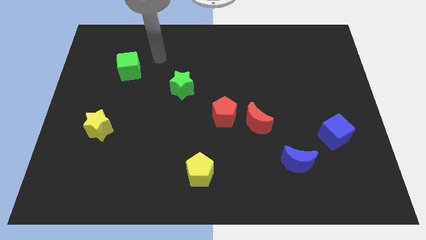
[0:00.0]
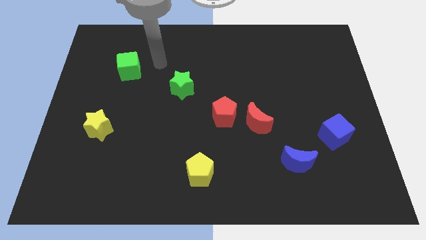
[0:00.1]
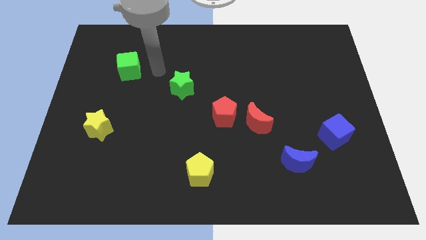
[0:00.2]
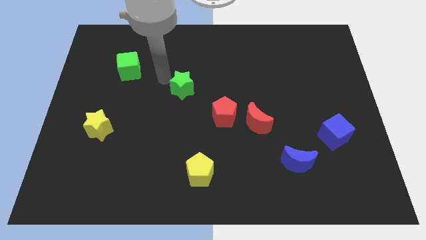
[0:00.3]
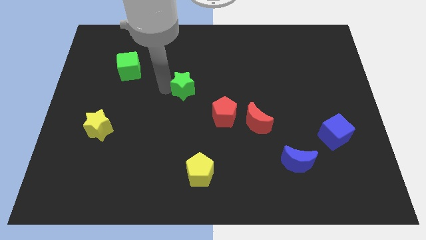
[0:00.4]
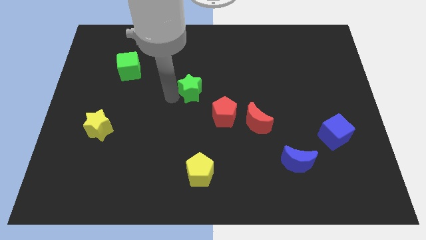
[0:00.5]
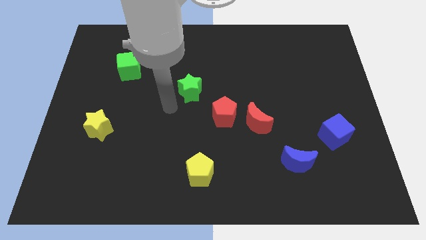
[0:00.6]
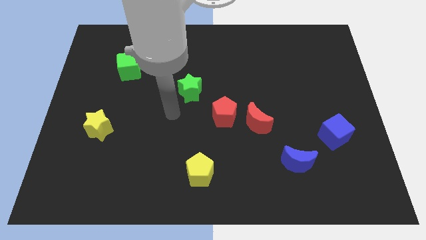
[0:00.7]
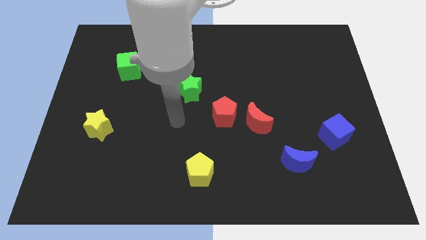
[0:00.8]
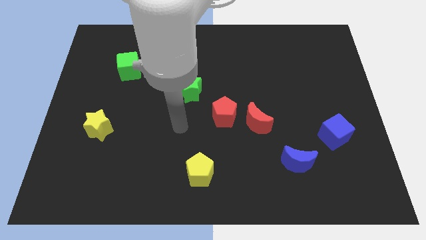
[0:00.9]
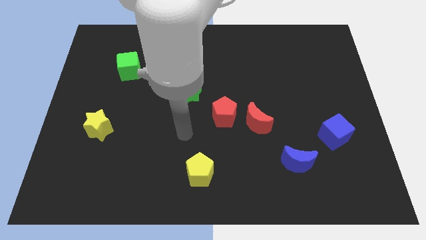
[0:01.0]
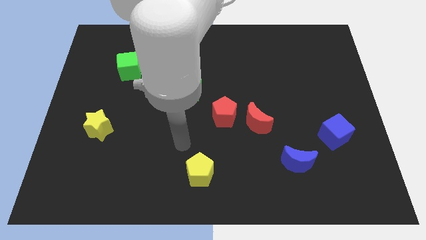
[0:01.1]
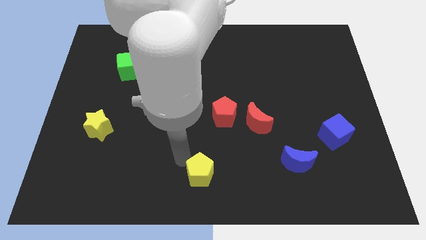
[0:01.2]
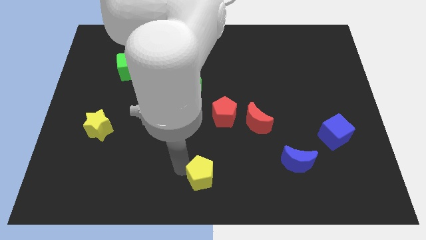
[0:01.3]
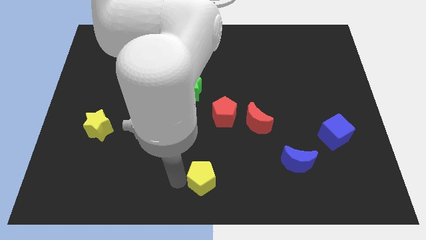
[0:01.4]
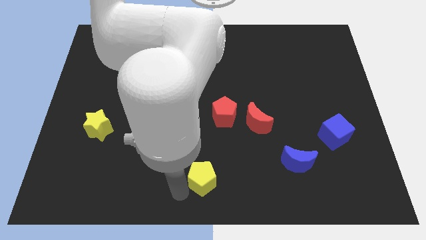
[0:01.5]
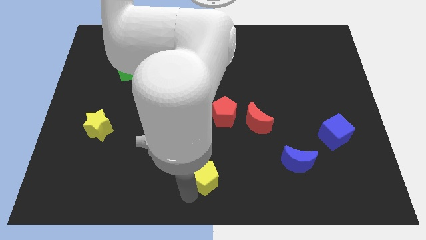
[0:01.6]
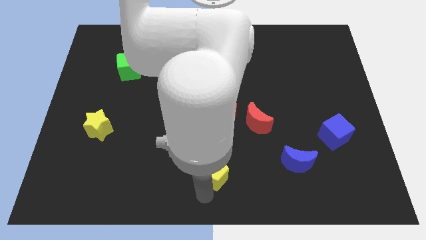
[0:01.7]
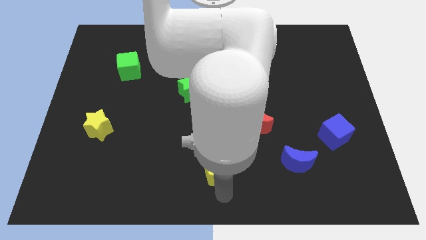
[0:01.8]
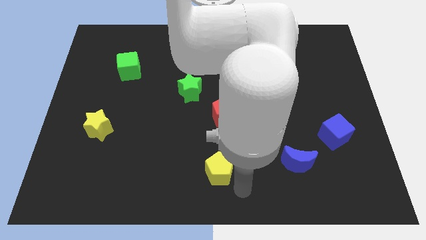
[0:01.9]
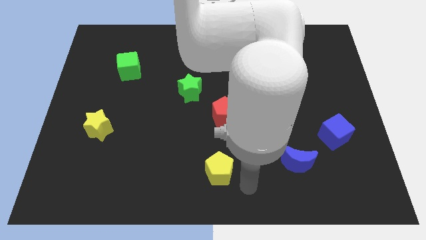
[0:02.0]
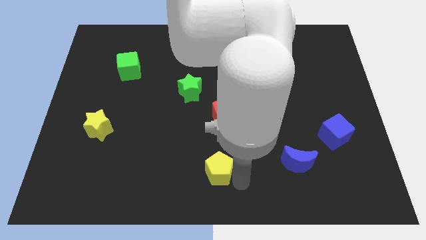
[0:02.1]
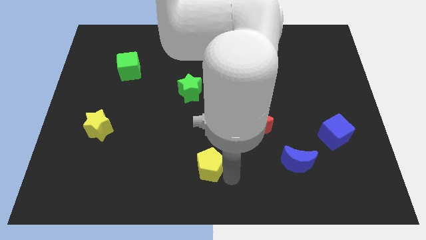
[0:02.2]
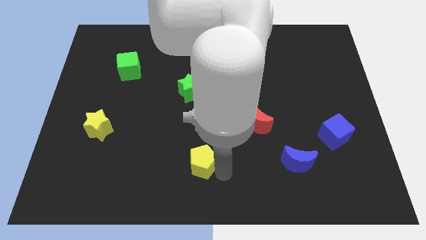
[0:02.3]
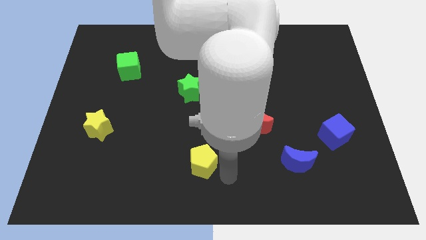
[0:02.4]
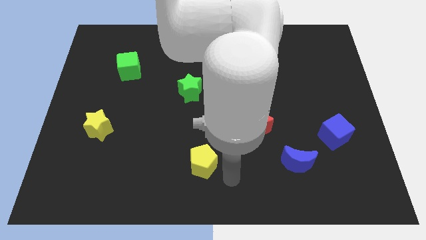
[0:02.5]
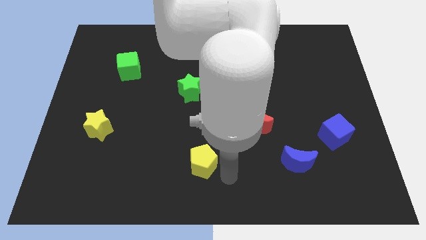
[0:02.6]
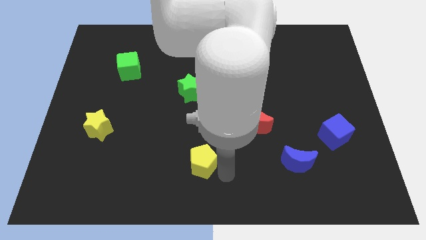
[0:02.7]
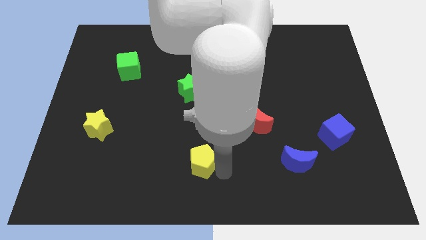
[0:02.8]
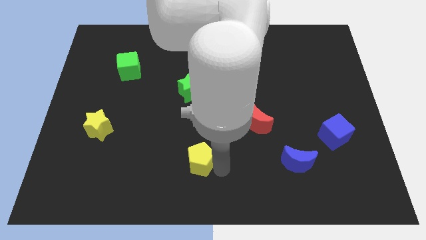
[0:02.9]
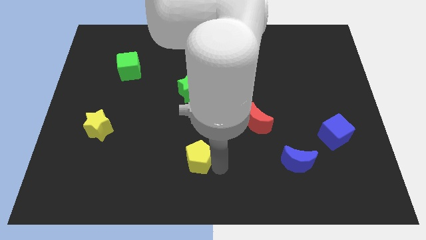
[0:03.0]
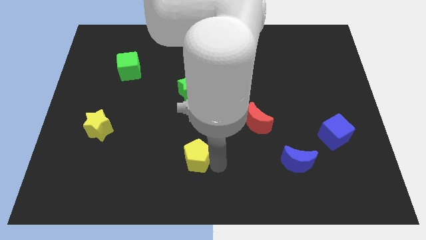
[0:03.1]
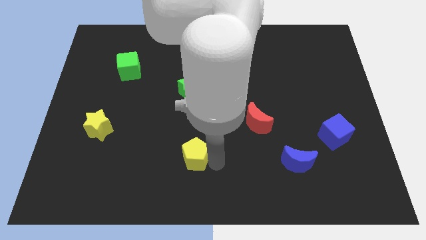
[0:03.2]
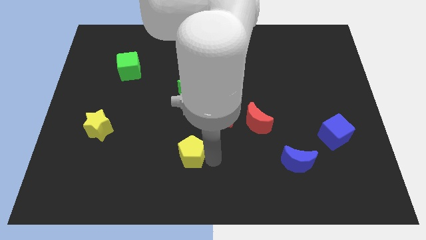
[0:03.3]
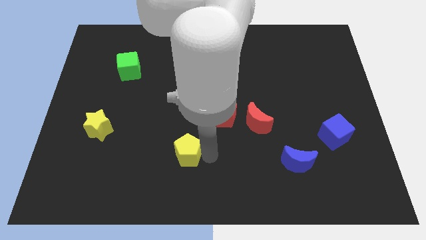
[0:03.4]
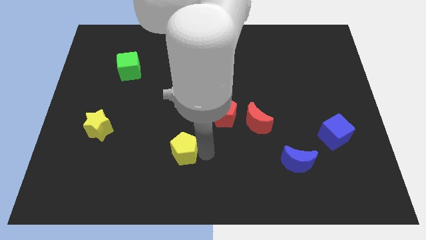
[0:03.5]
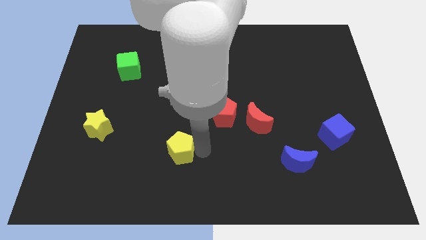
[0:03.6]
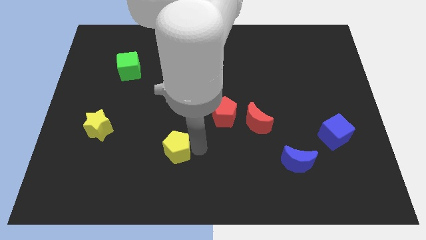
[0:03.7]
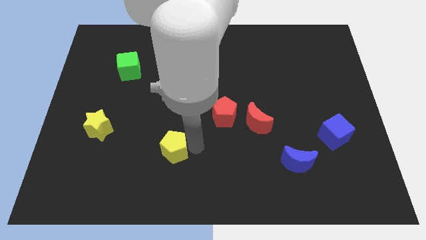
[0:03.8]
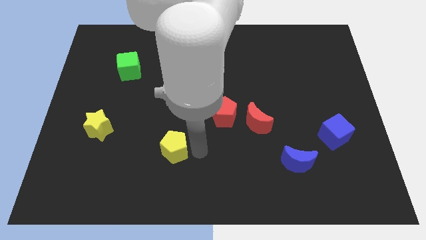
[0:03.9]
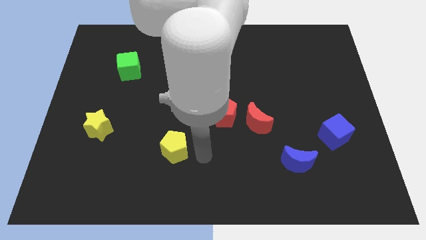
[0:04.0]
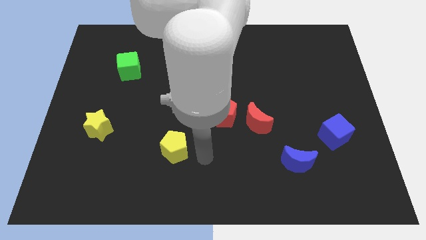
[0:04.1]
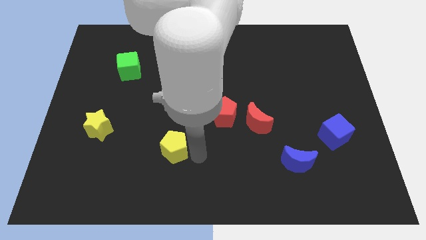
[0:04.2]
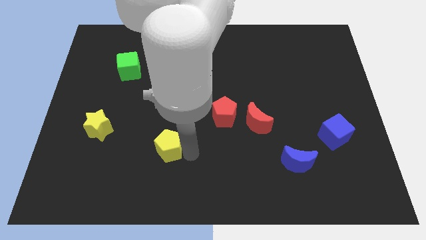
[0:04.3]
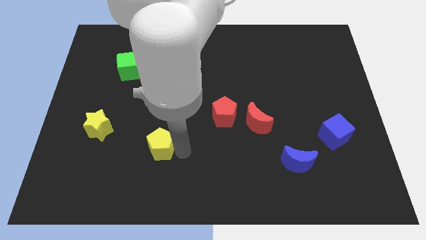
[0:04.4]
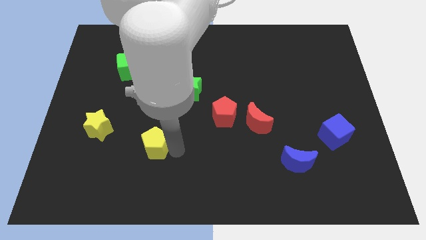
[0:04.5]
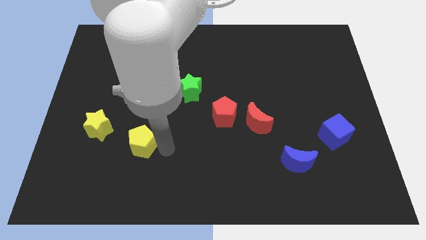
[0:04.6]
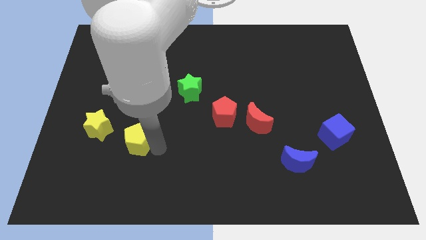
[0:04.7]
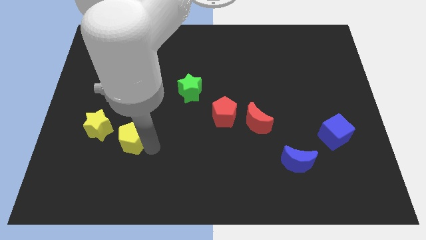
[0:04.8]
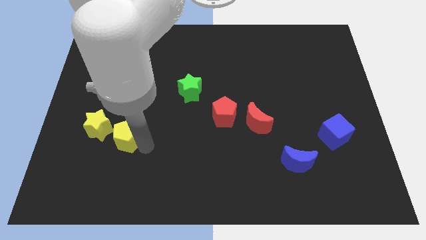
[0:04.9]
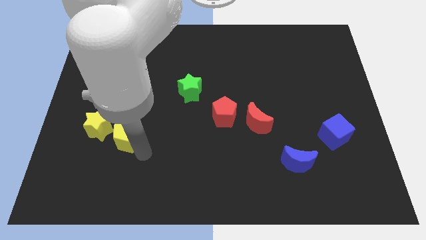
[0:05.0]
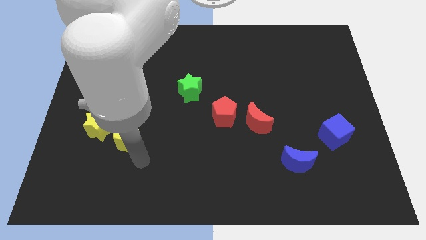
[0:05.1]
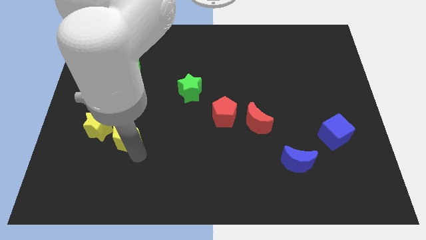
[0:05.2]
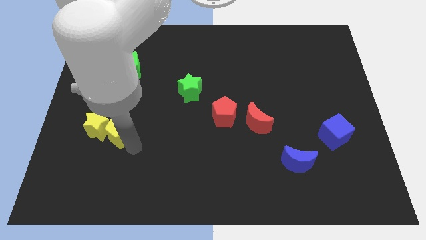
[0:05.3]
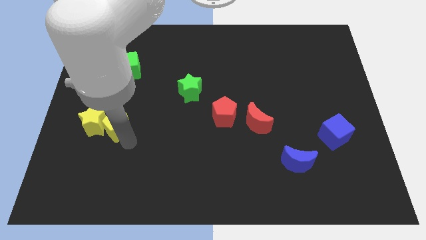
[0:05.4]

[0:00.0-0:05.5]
move the yellow pentagon upwards and then left

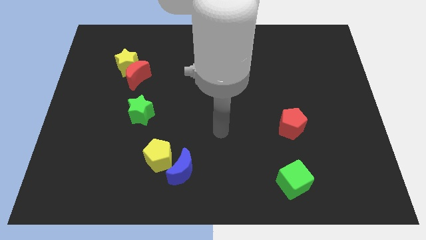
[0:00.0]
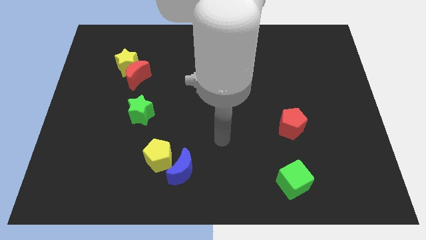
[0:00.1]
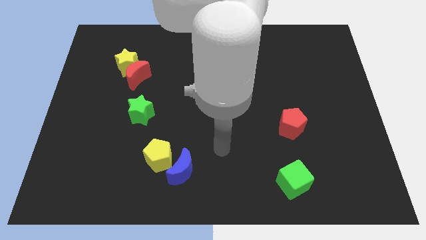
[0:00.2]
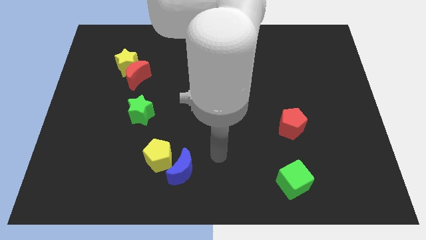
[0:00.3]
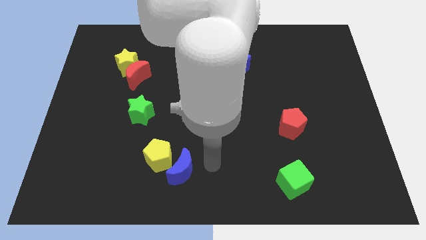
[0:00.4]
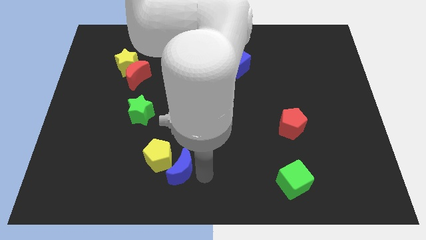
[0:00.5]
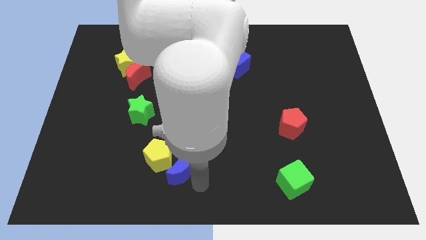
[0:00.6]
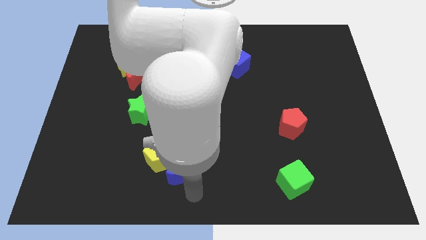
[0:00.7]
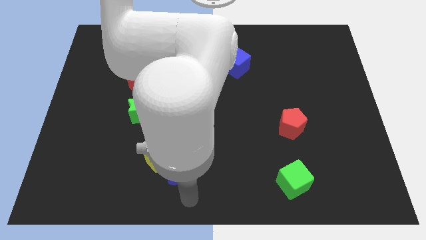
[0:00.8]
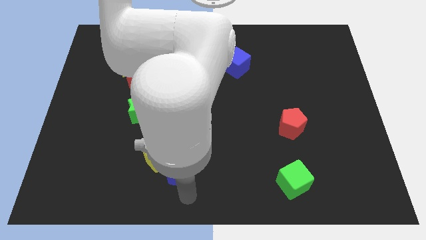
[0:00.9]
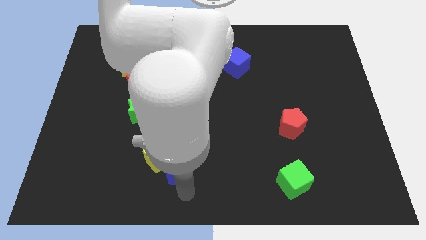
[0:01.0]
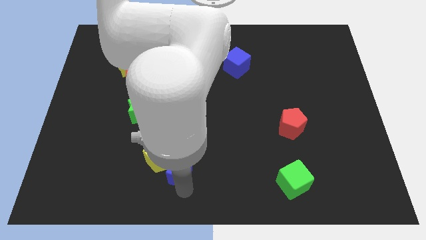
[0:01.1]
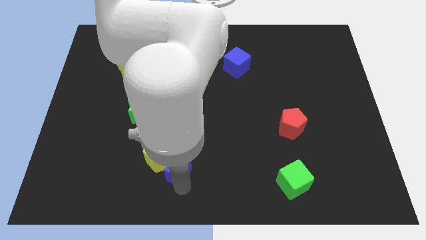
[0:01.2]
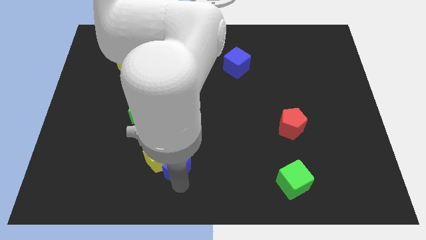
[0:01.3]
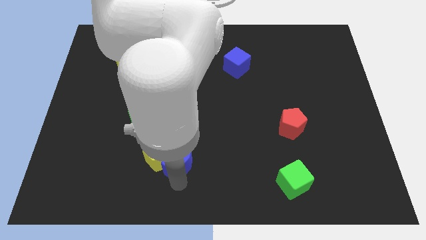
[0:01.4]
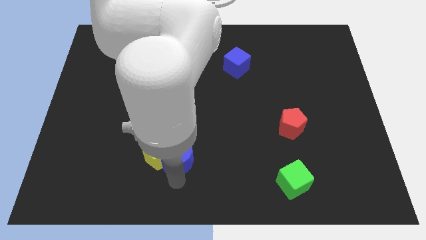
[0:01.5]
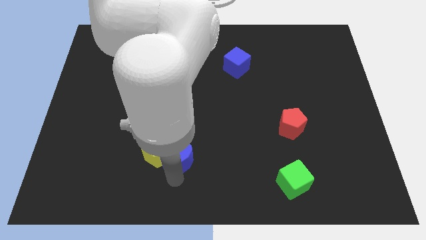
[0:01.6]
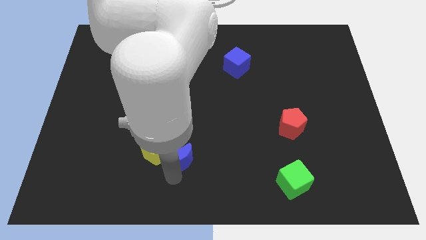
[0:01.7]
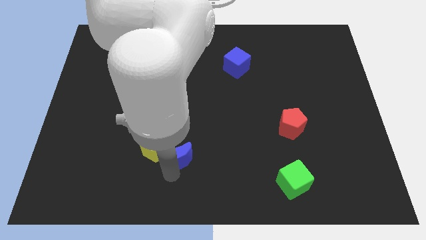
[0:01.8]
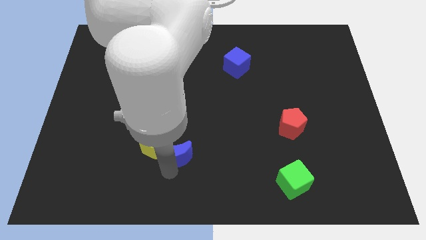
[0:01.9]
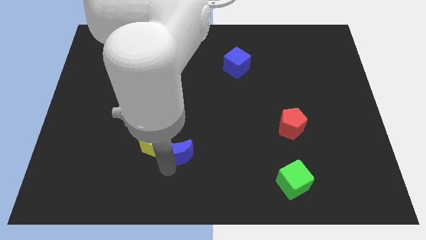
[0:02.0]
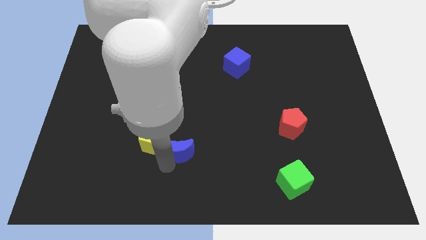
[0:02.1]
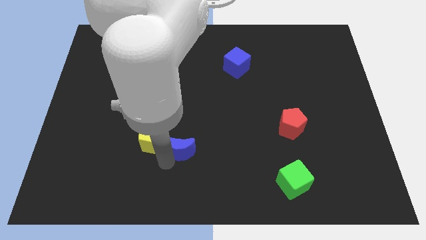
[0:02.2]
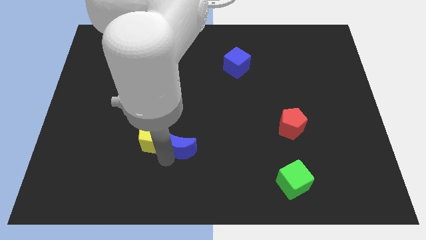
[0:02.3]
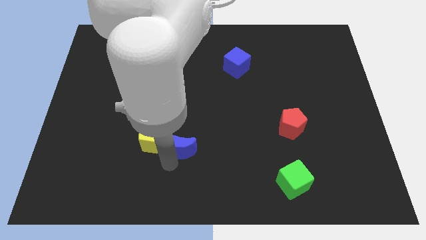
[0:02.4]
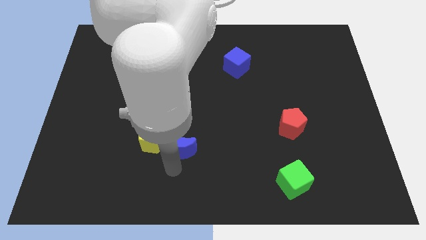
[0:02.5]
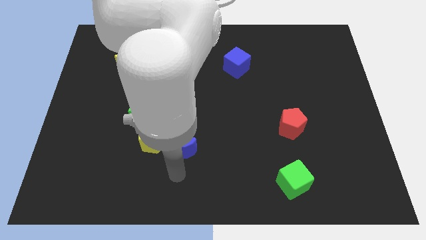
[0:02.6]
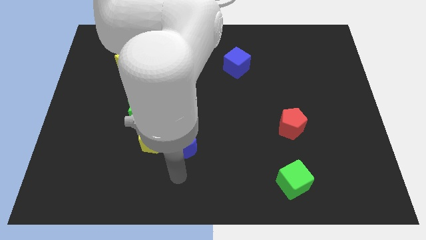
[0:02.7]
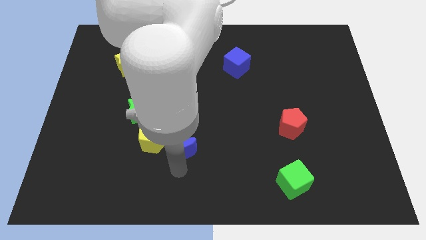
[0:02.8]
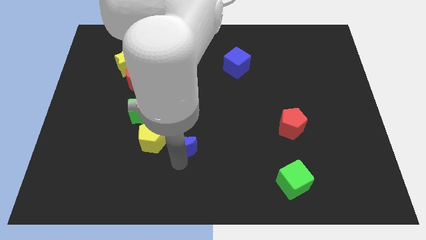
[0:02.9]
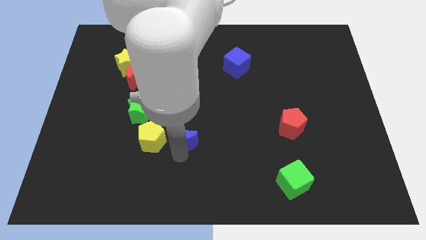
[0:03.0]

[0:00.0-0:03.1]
slightly move the blue moon up
